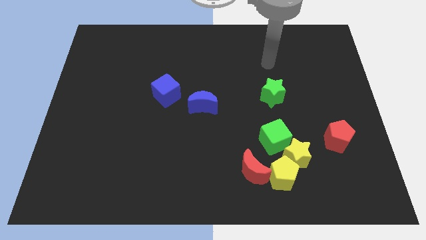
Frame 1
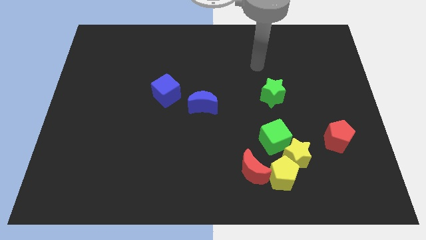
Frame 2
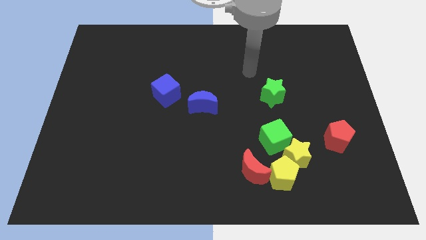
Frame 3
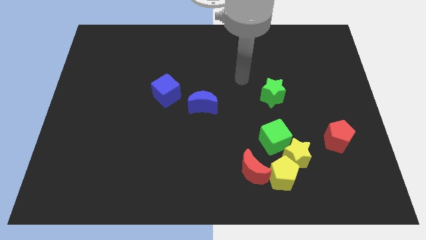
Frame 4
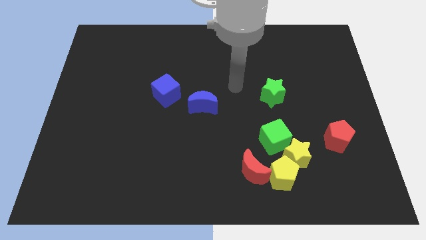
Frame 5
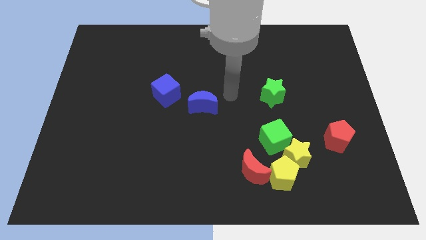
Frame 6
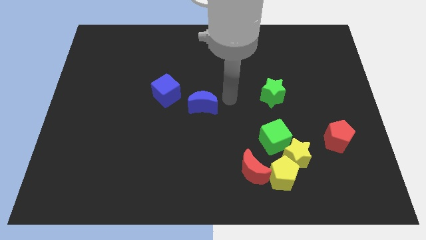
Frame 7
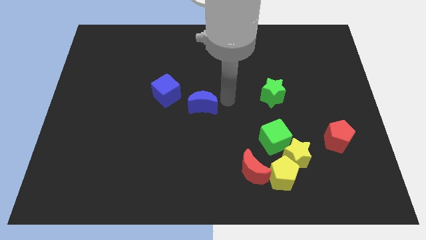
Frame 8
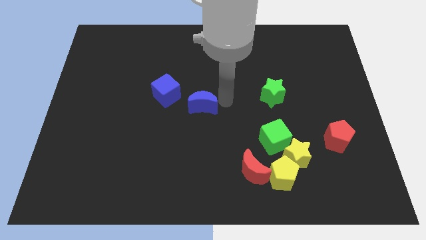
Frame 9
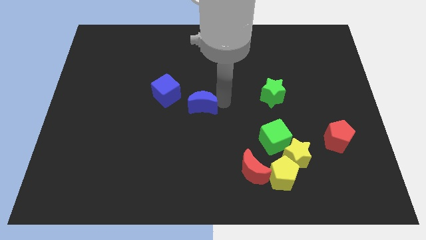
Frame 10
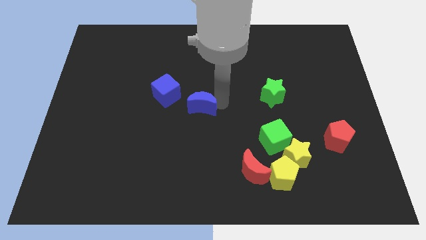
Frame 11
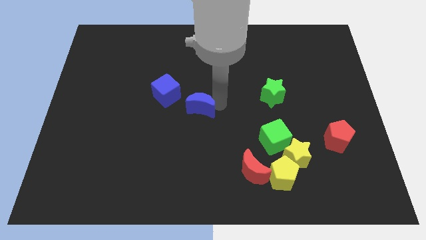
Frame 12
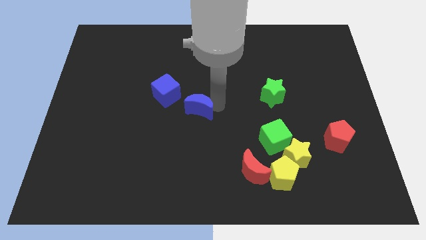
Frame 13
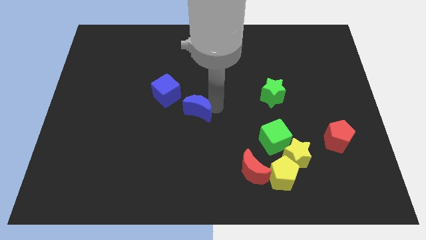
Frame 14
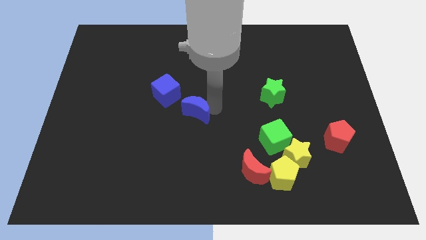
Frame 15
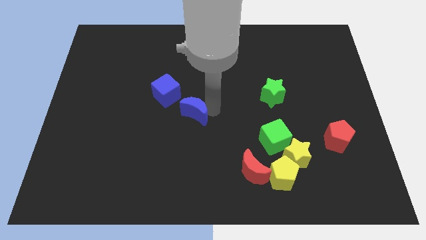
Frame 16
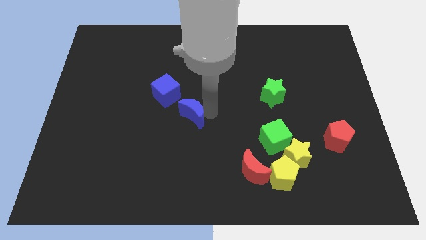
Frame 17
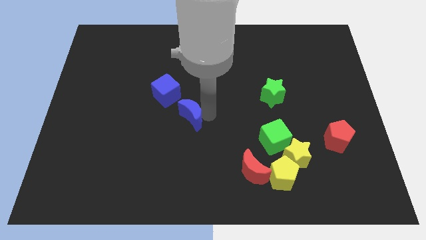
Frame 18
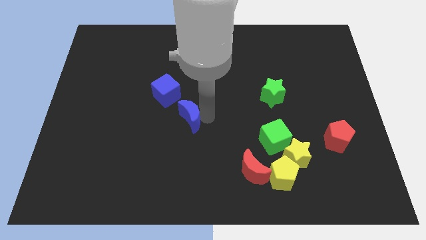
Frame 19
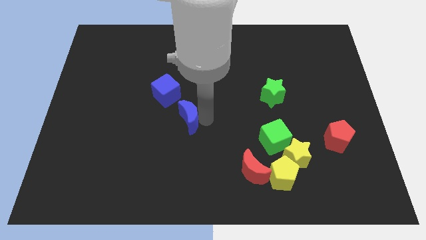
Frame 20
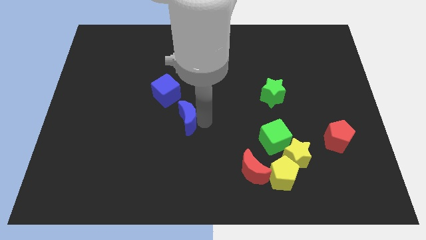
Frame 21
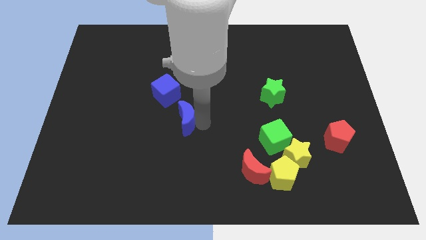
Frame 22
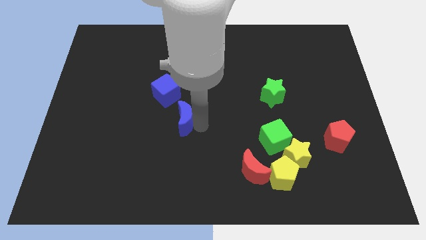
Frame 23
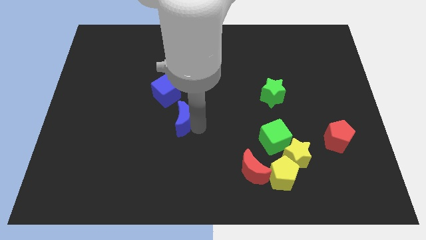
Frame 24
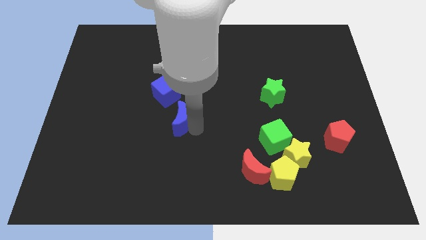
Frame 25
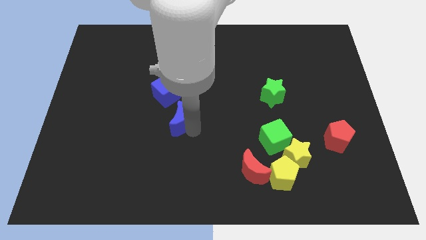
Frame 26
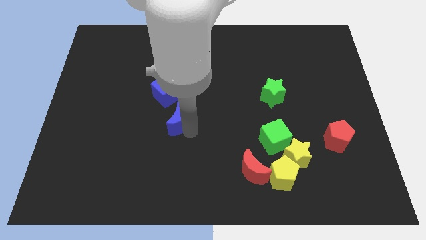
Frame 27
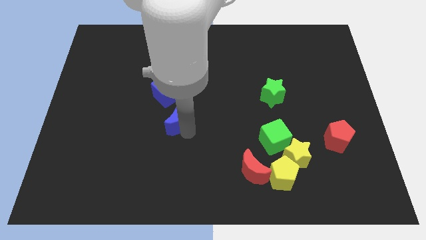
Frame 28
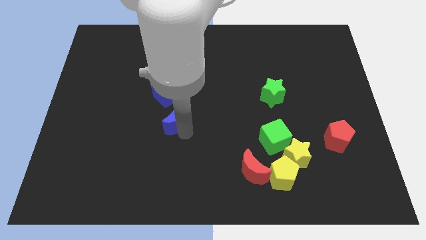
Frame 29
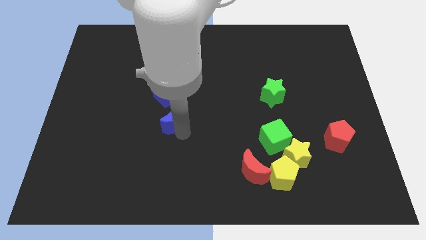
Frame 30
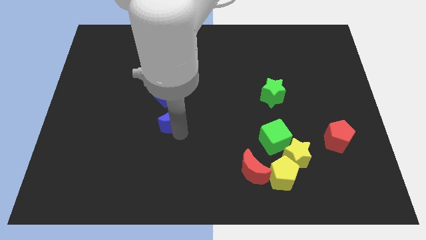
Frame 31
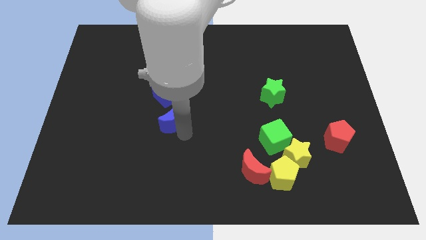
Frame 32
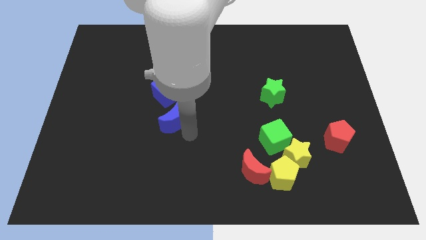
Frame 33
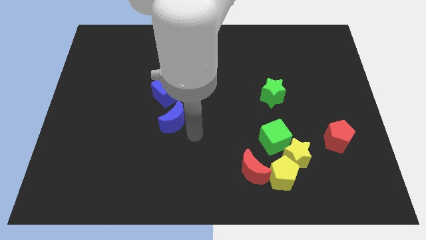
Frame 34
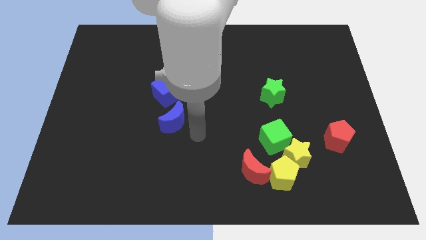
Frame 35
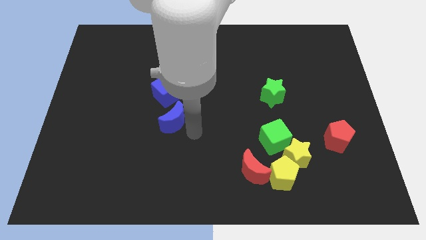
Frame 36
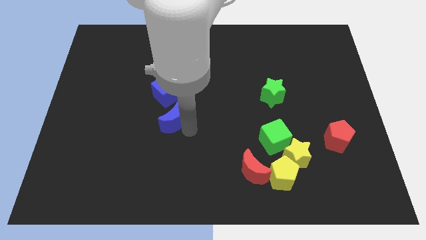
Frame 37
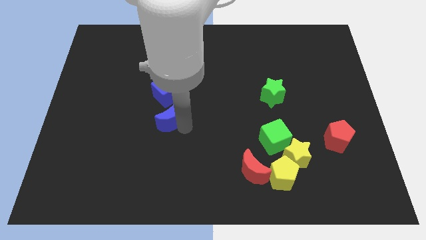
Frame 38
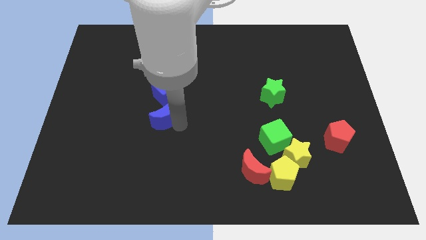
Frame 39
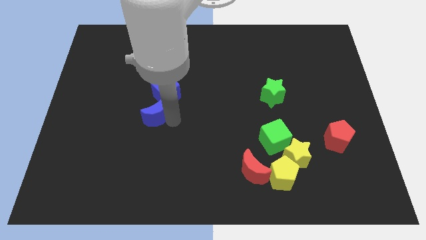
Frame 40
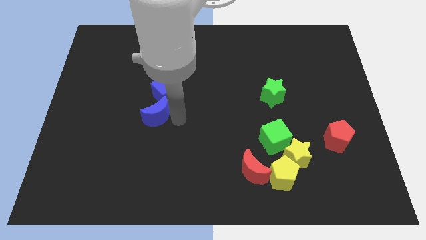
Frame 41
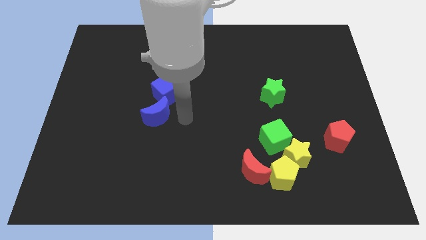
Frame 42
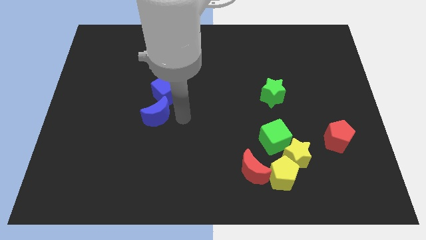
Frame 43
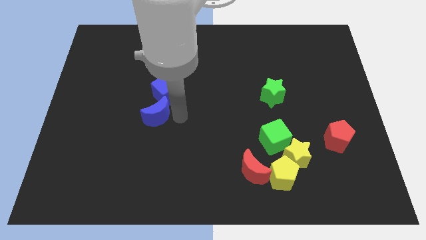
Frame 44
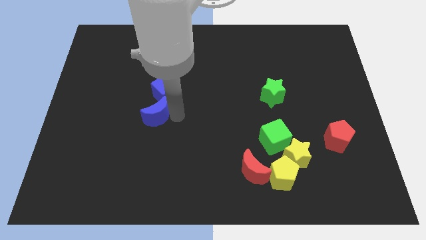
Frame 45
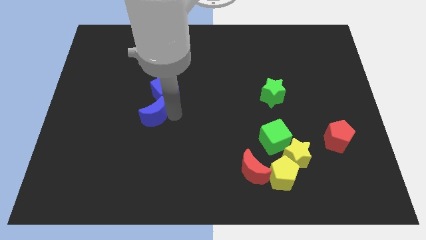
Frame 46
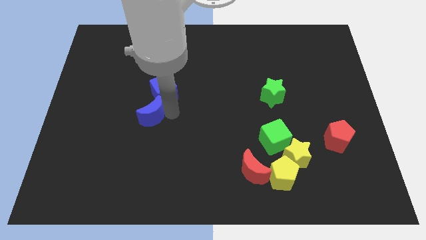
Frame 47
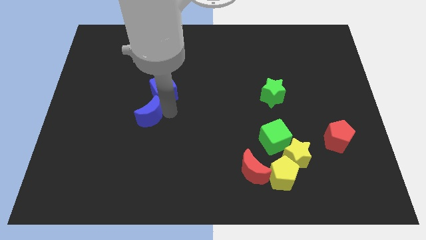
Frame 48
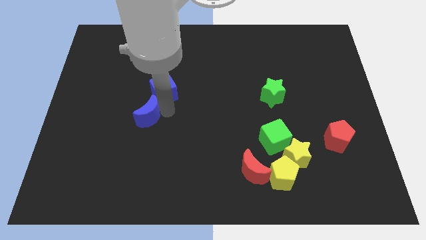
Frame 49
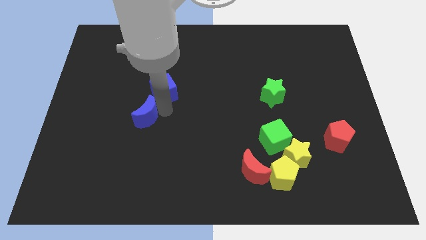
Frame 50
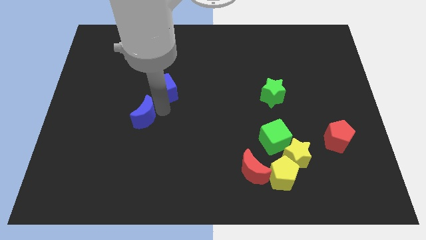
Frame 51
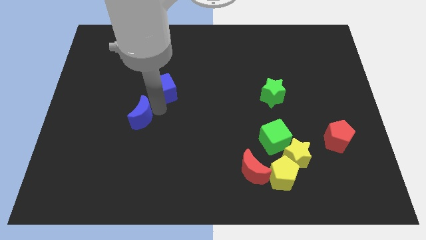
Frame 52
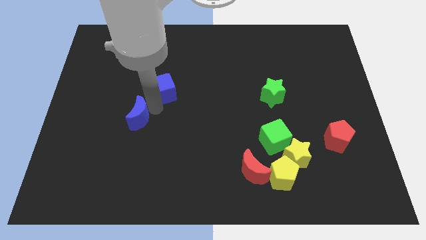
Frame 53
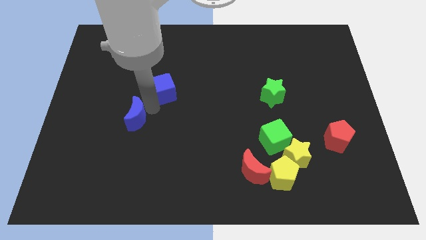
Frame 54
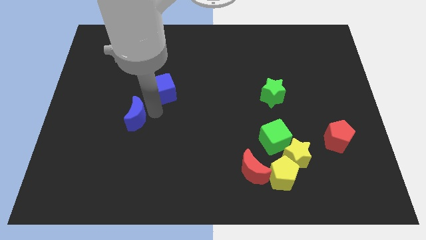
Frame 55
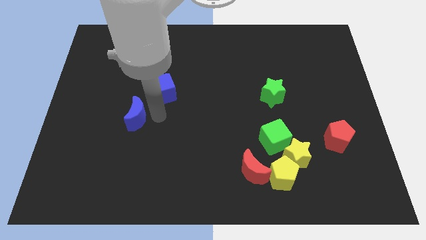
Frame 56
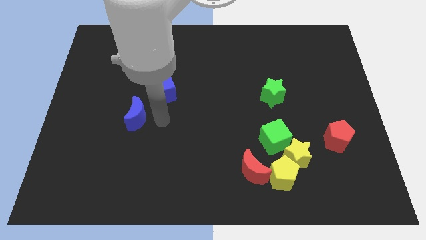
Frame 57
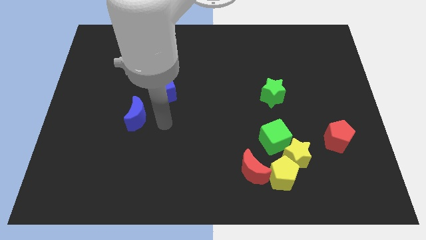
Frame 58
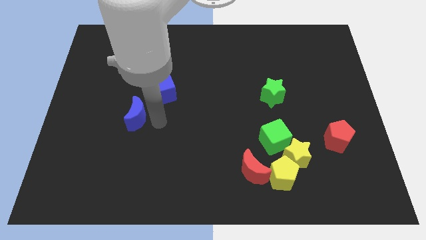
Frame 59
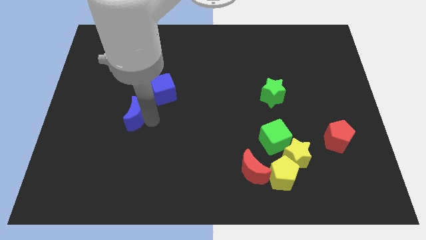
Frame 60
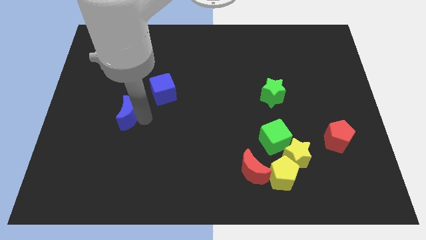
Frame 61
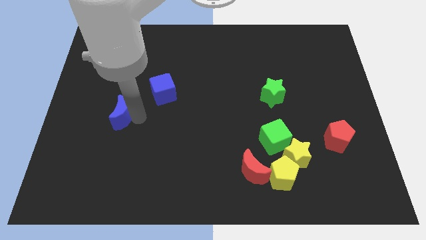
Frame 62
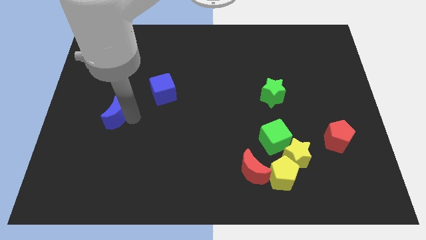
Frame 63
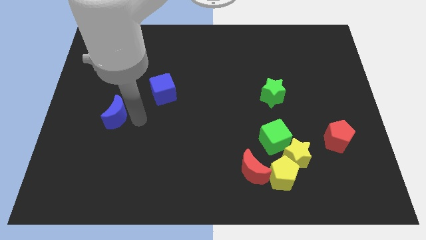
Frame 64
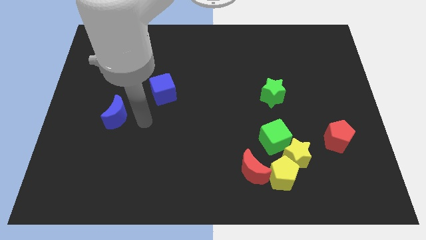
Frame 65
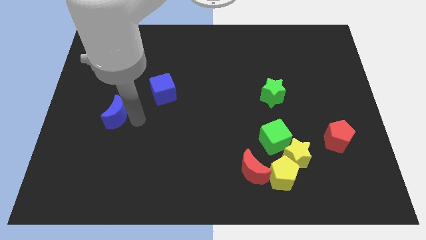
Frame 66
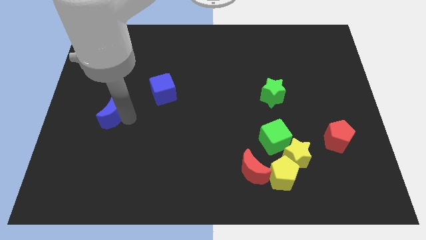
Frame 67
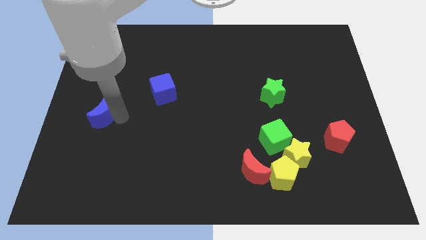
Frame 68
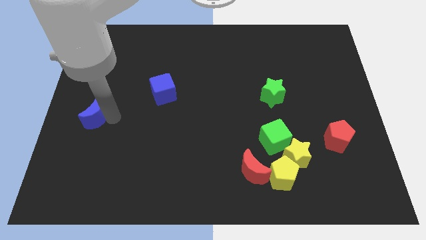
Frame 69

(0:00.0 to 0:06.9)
put the blue moon to the left side of the board

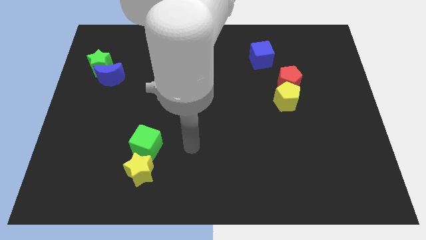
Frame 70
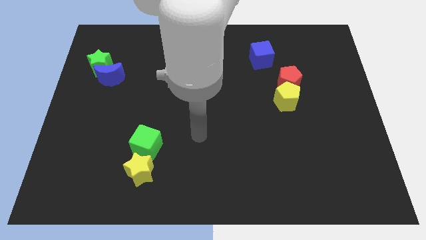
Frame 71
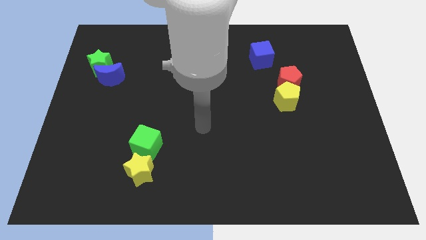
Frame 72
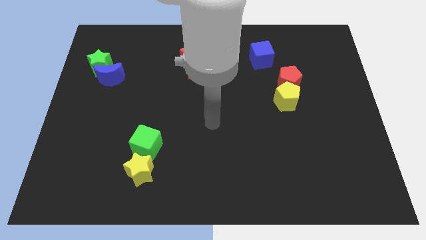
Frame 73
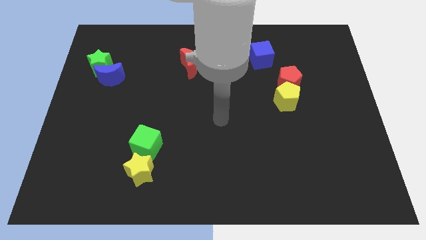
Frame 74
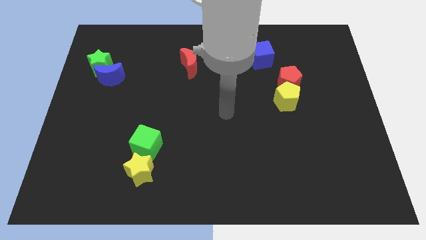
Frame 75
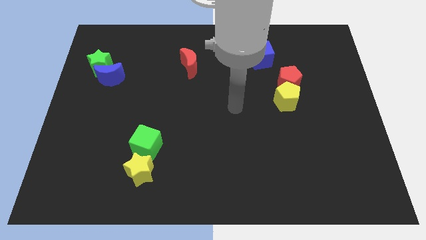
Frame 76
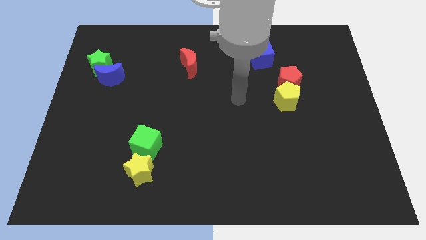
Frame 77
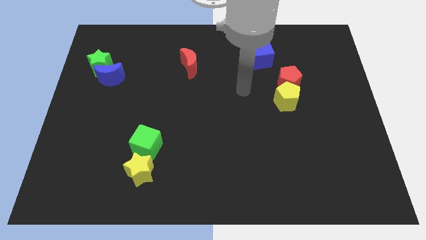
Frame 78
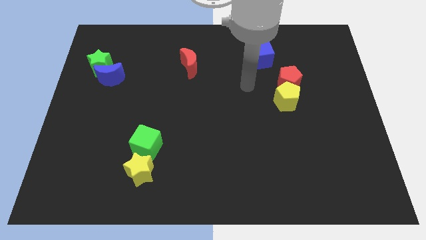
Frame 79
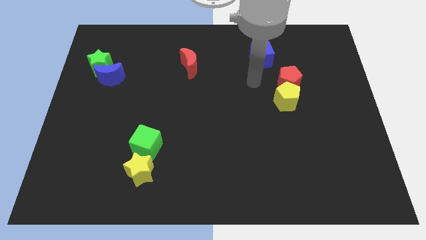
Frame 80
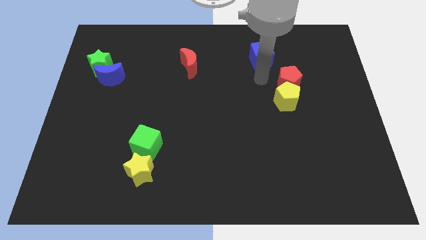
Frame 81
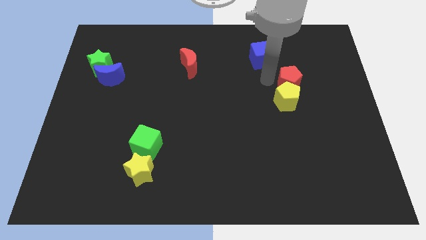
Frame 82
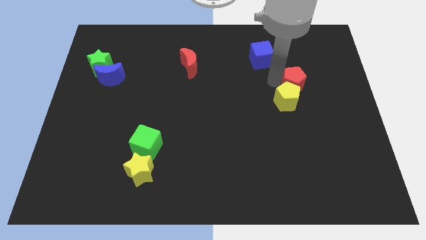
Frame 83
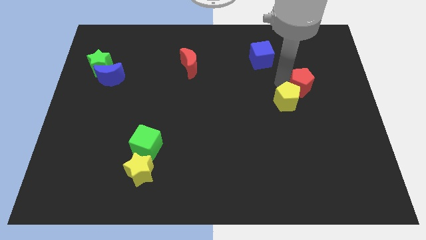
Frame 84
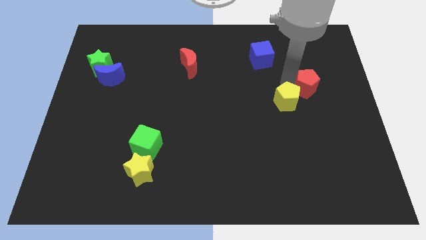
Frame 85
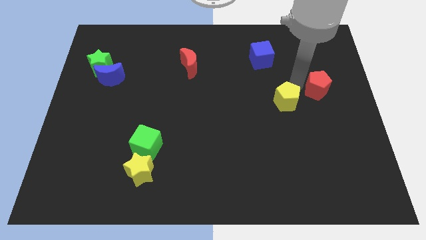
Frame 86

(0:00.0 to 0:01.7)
put the red pentagon to the right side
